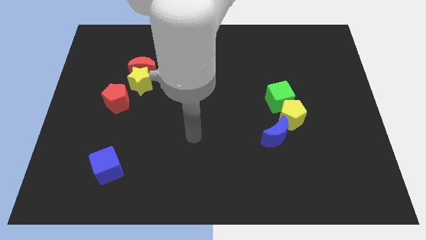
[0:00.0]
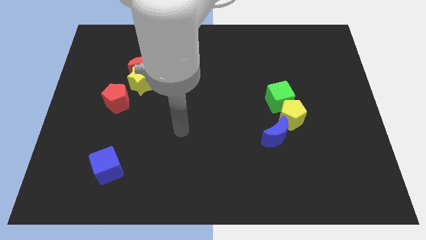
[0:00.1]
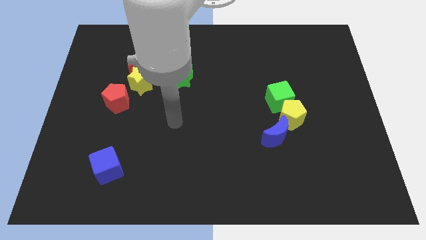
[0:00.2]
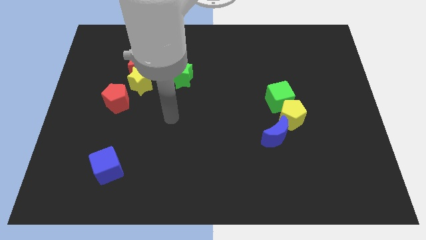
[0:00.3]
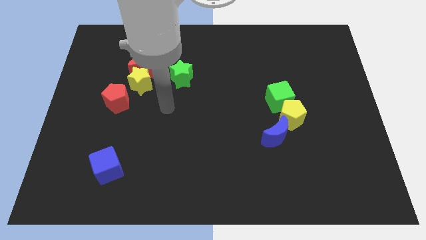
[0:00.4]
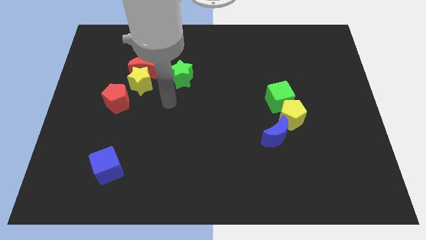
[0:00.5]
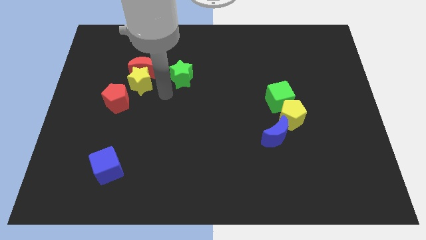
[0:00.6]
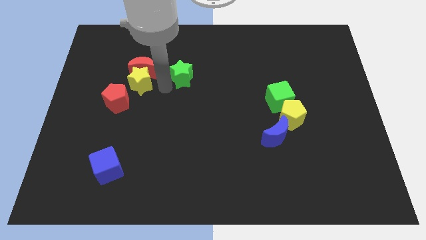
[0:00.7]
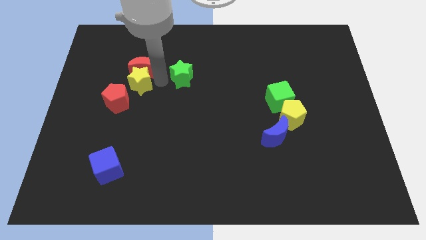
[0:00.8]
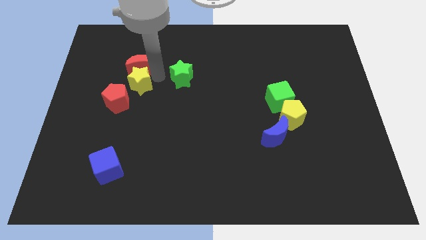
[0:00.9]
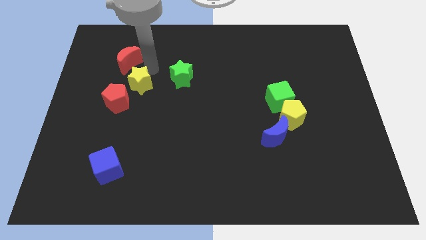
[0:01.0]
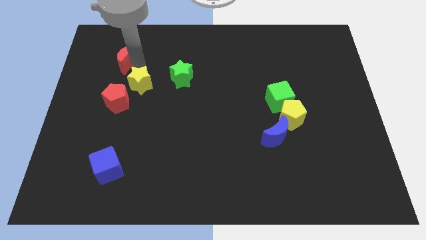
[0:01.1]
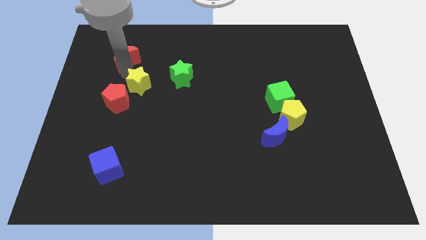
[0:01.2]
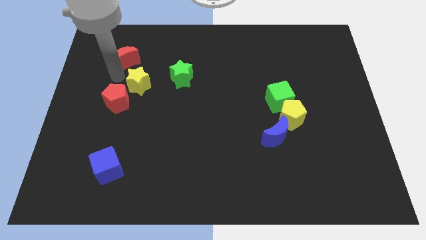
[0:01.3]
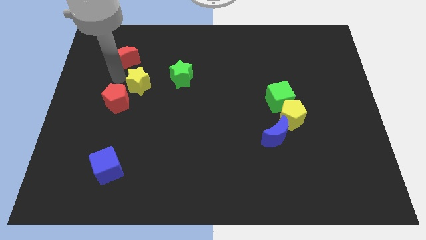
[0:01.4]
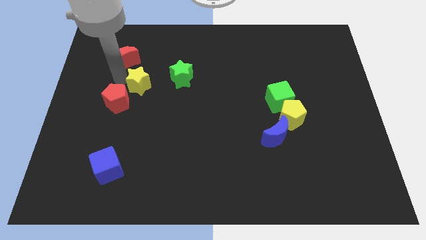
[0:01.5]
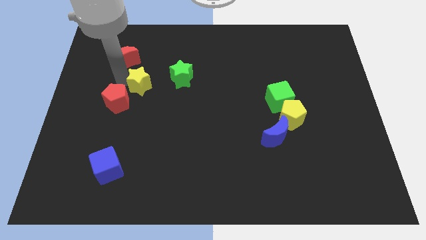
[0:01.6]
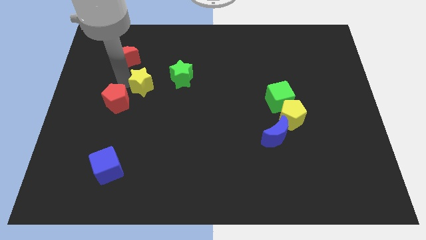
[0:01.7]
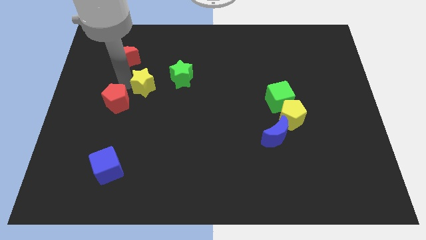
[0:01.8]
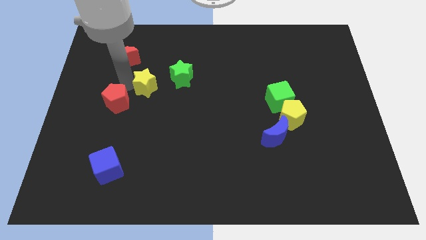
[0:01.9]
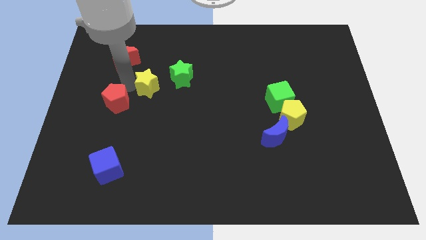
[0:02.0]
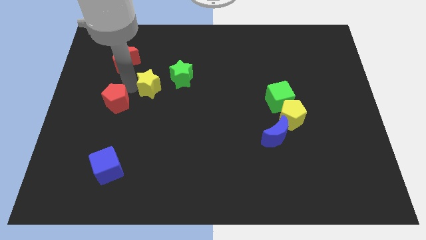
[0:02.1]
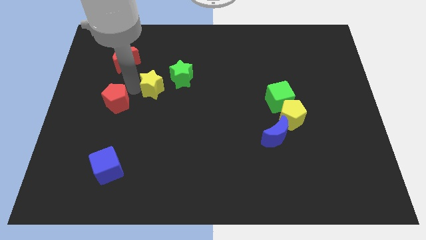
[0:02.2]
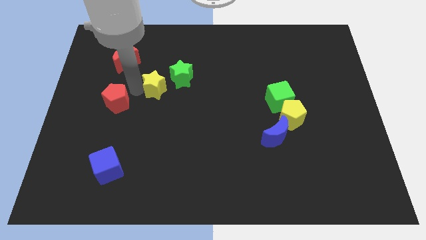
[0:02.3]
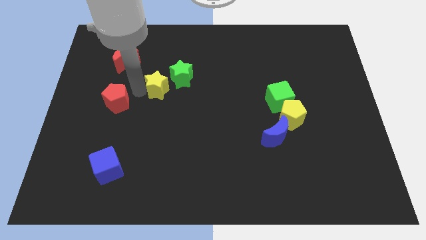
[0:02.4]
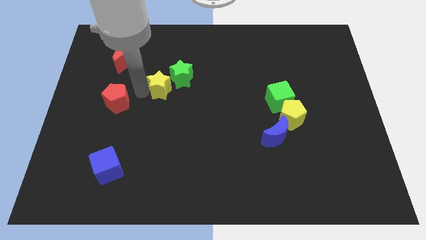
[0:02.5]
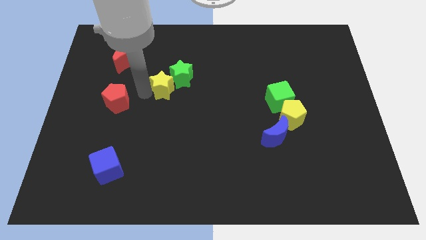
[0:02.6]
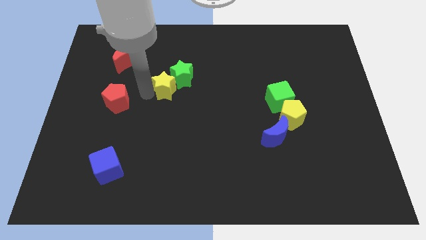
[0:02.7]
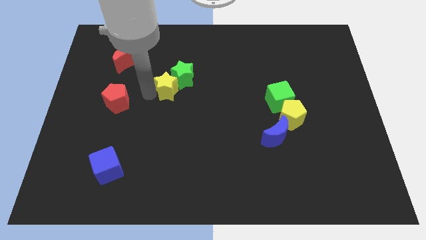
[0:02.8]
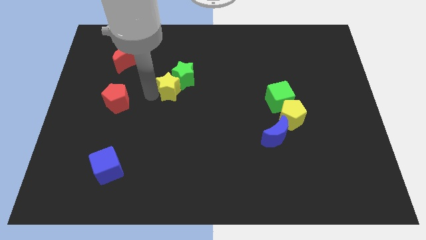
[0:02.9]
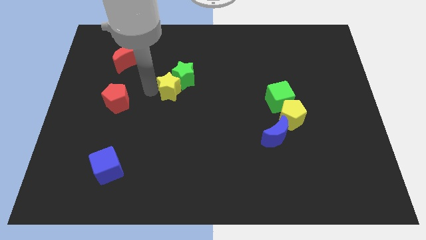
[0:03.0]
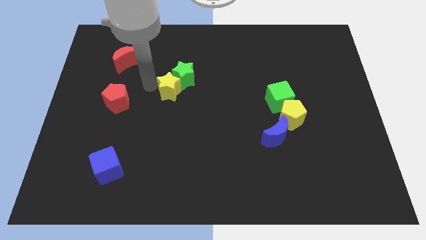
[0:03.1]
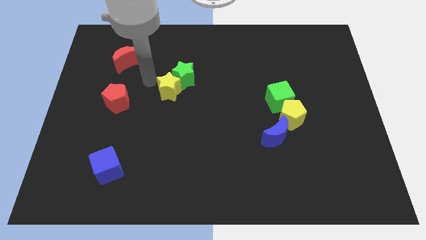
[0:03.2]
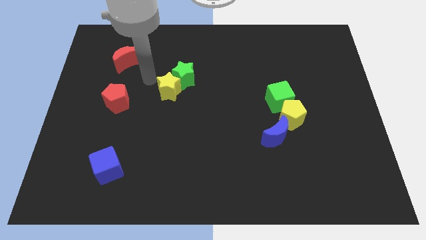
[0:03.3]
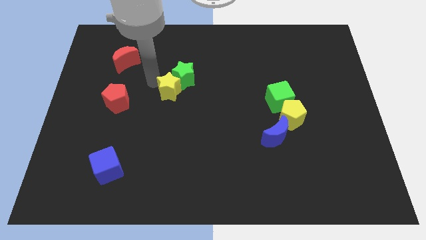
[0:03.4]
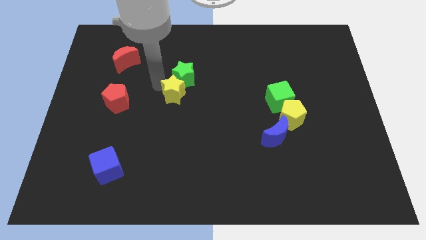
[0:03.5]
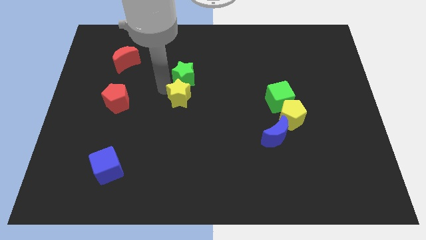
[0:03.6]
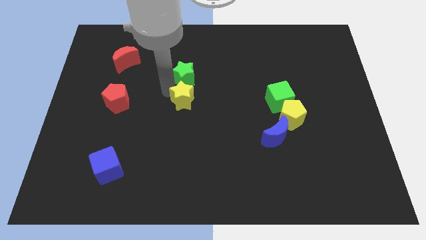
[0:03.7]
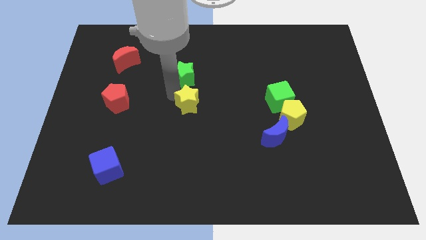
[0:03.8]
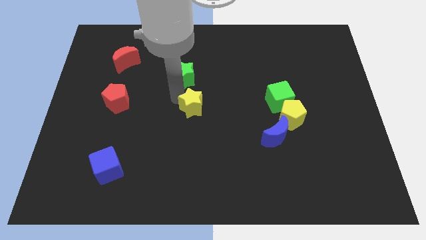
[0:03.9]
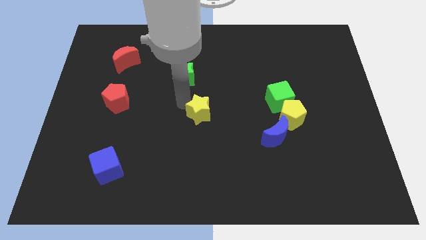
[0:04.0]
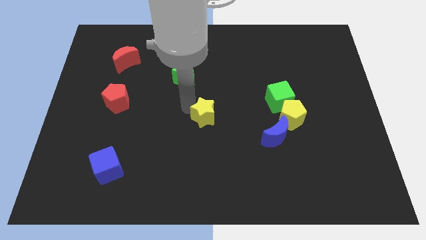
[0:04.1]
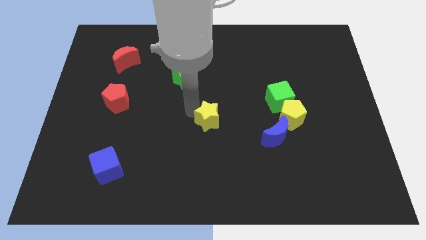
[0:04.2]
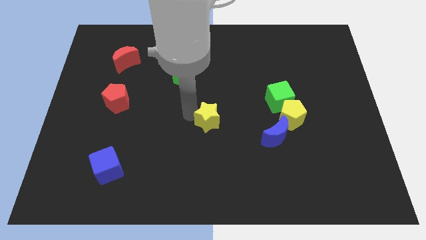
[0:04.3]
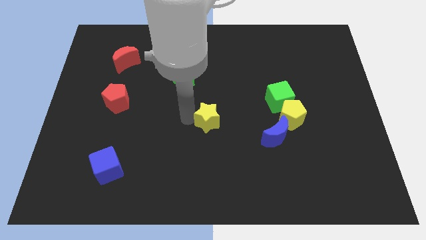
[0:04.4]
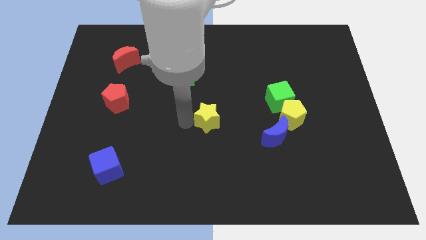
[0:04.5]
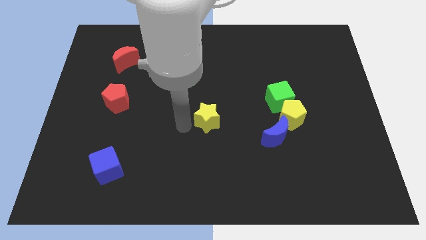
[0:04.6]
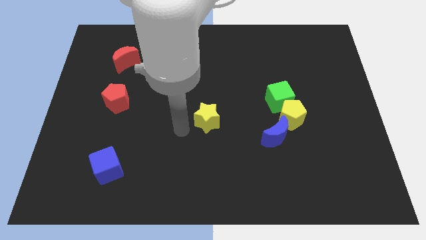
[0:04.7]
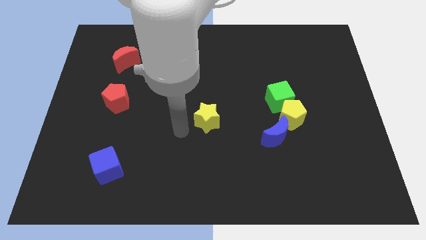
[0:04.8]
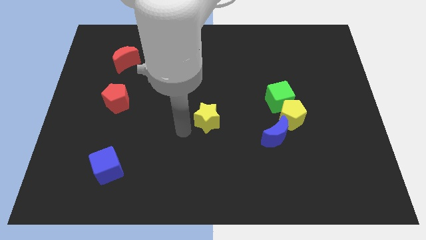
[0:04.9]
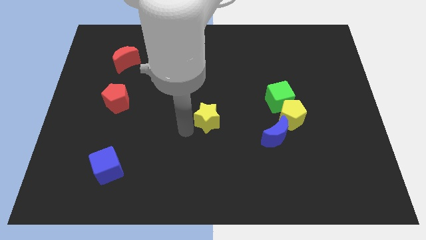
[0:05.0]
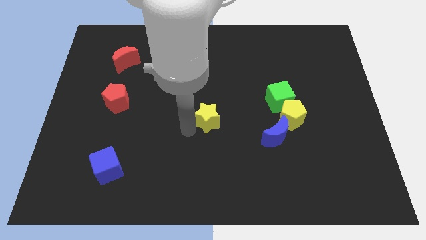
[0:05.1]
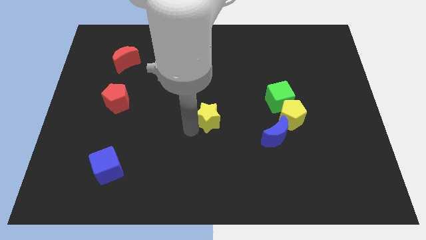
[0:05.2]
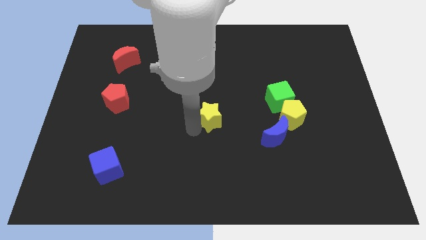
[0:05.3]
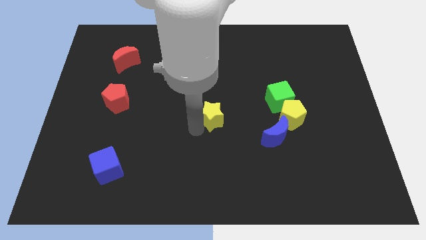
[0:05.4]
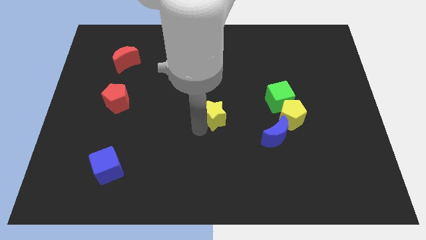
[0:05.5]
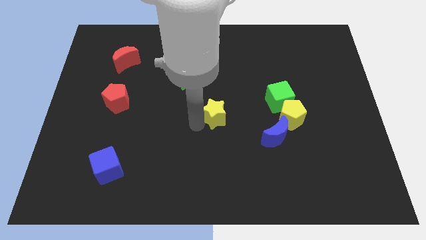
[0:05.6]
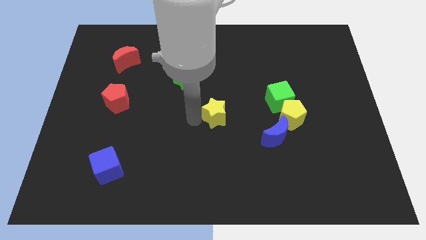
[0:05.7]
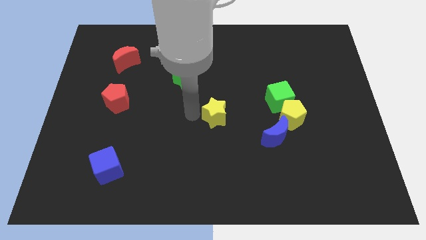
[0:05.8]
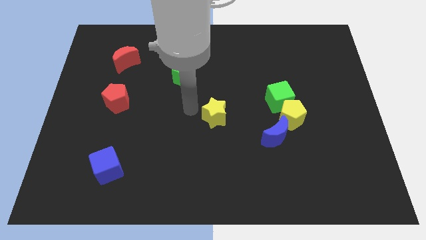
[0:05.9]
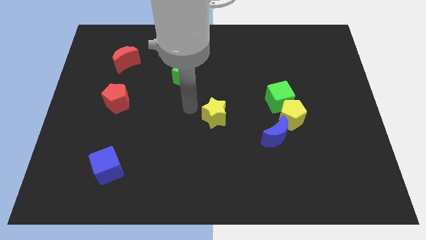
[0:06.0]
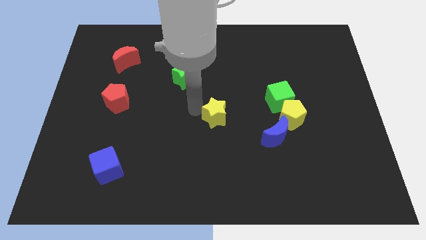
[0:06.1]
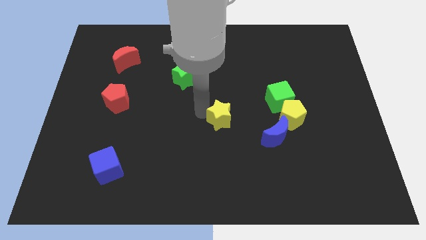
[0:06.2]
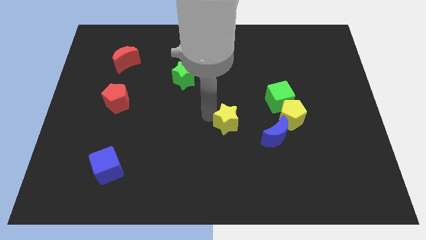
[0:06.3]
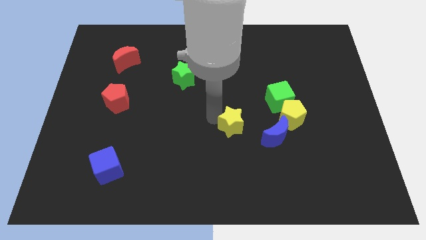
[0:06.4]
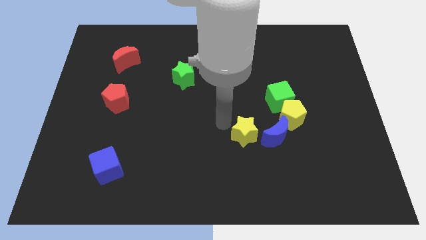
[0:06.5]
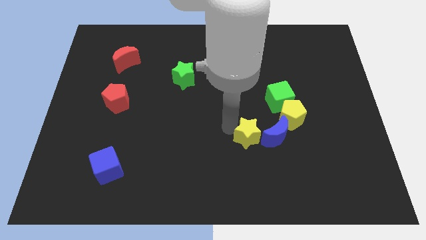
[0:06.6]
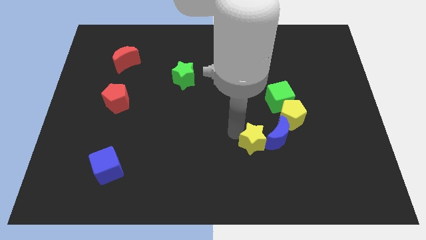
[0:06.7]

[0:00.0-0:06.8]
move the yellow star towards the blue moon

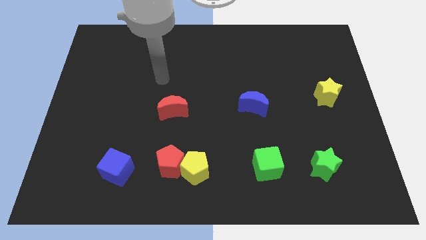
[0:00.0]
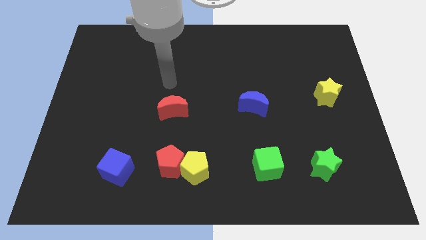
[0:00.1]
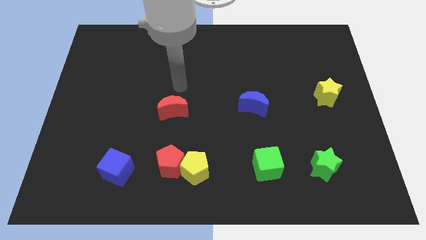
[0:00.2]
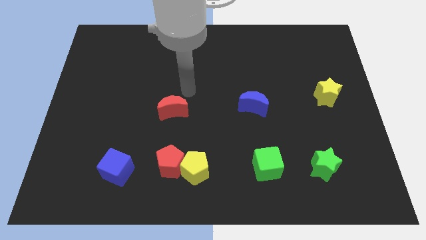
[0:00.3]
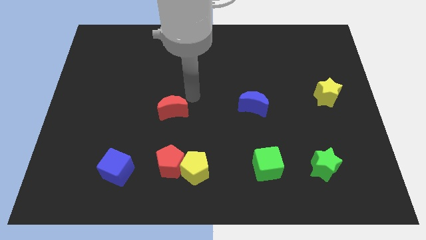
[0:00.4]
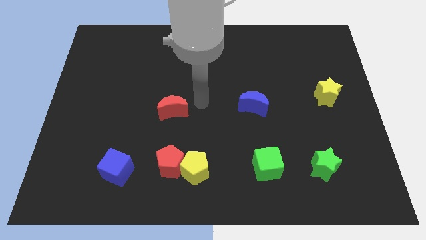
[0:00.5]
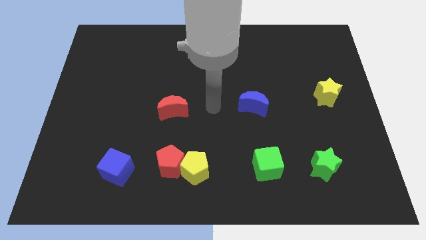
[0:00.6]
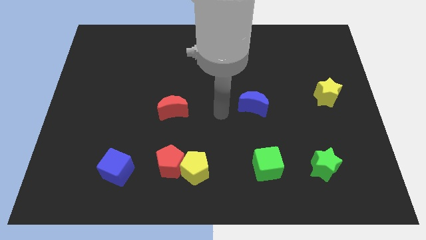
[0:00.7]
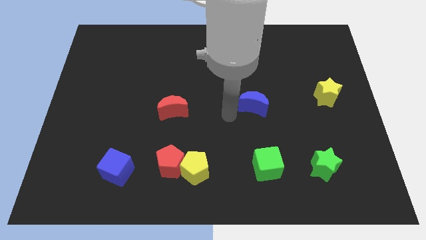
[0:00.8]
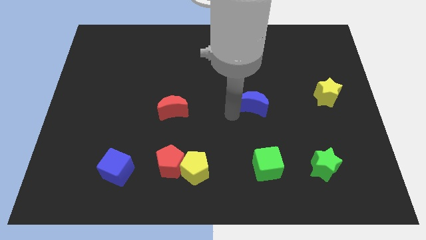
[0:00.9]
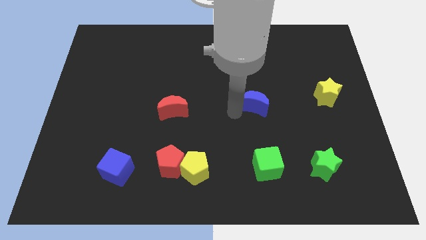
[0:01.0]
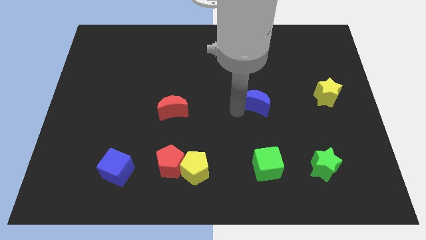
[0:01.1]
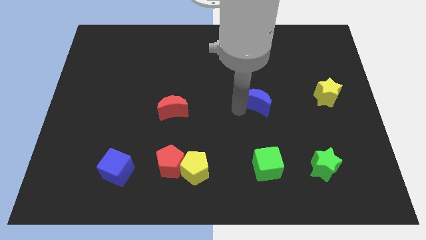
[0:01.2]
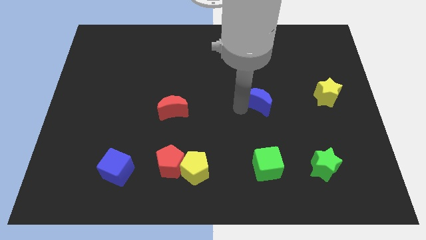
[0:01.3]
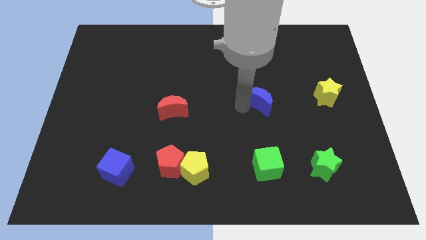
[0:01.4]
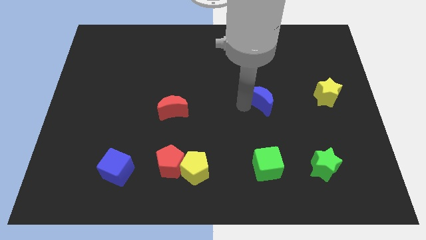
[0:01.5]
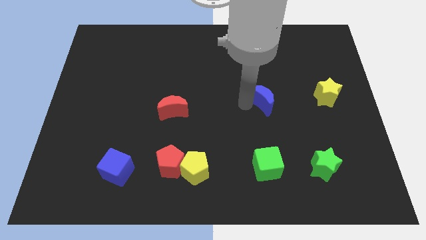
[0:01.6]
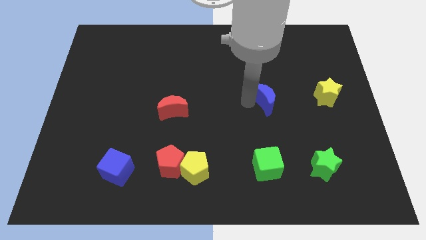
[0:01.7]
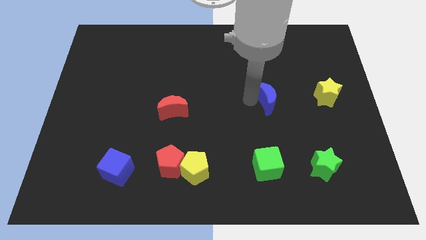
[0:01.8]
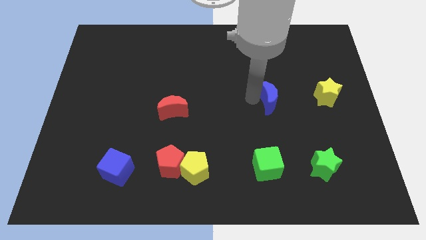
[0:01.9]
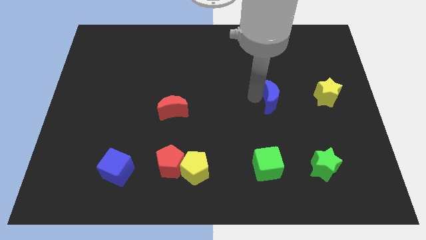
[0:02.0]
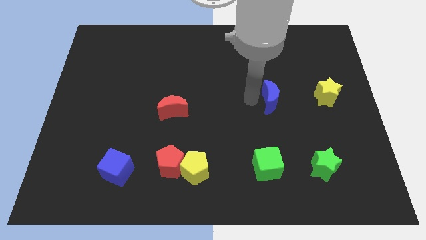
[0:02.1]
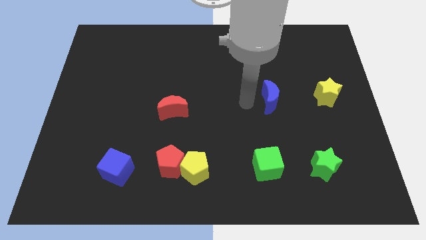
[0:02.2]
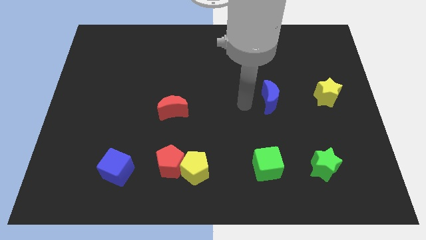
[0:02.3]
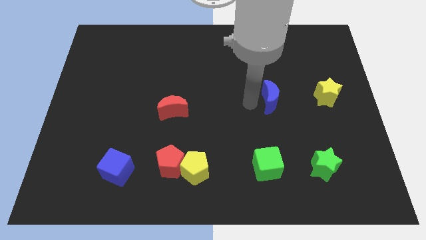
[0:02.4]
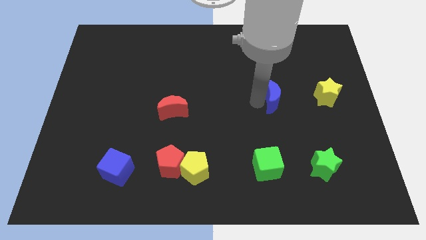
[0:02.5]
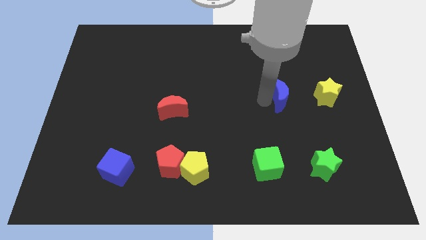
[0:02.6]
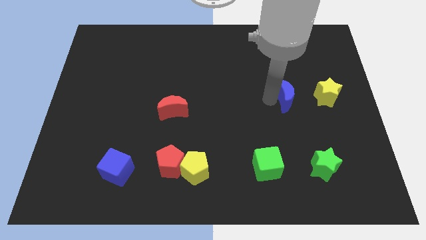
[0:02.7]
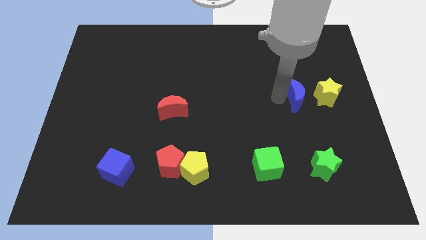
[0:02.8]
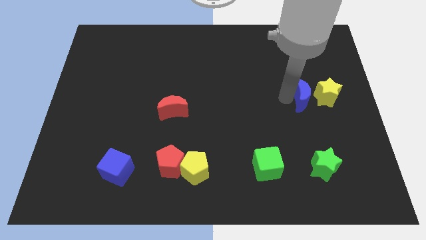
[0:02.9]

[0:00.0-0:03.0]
put the blue moon next to the yellow star
